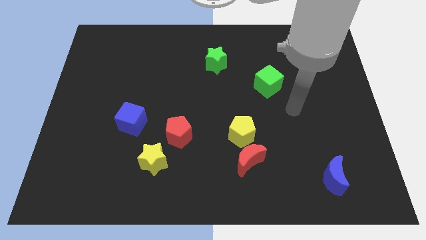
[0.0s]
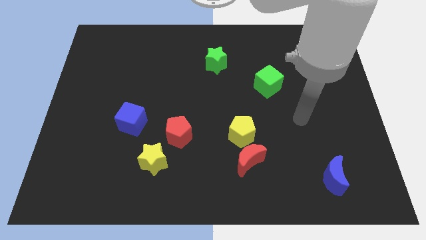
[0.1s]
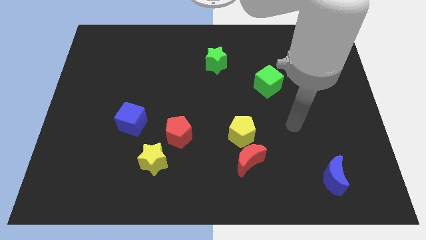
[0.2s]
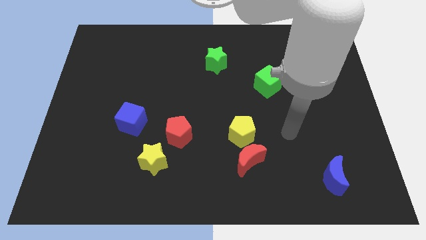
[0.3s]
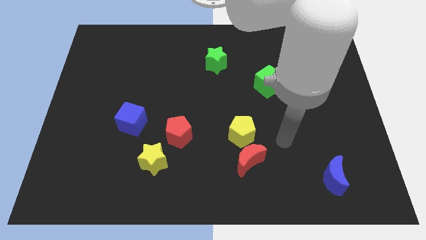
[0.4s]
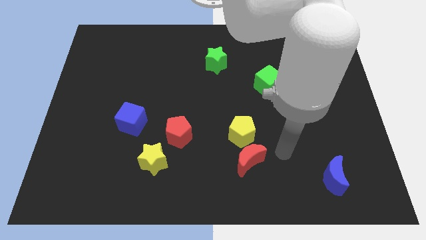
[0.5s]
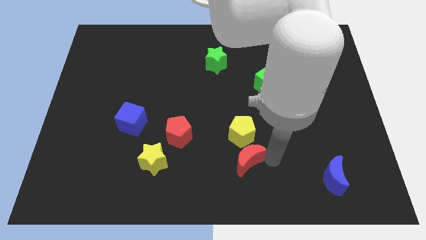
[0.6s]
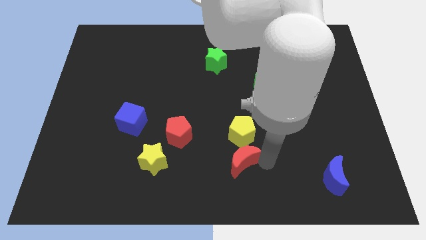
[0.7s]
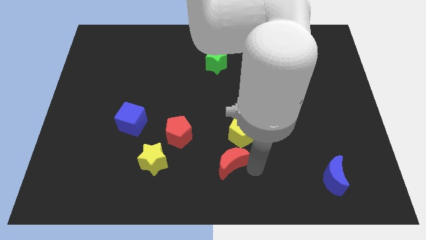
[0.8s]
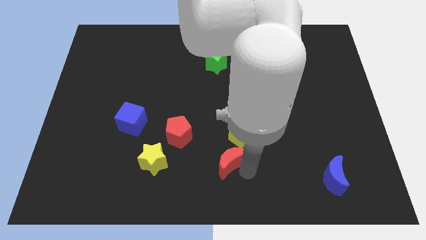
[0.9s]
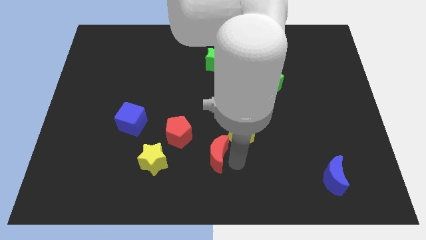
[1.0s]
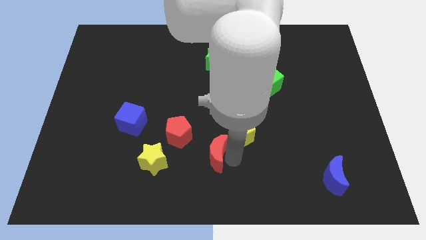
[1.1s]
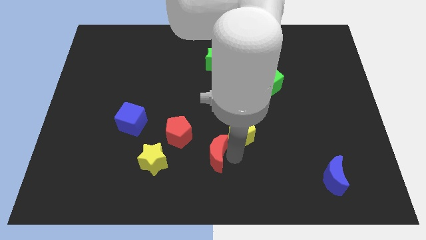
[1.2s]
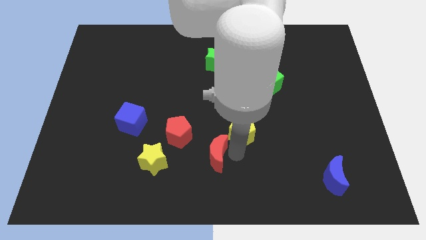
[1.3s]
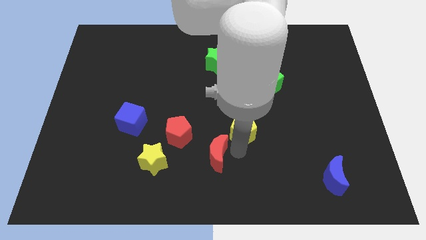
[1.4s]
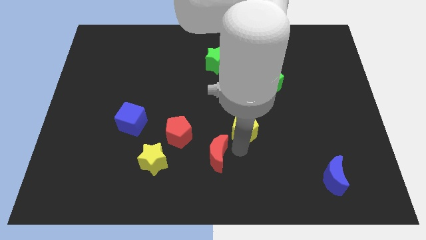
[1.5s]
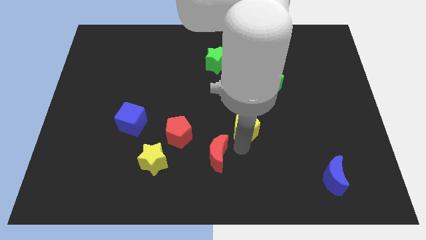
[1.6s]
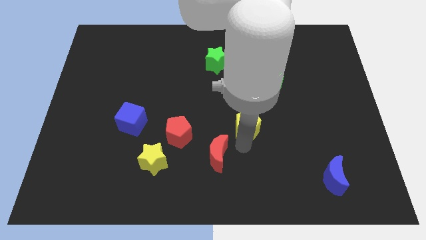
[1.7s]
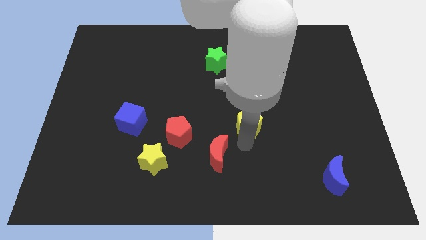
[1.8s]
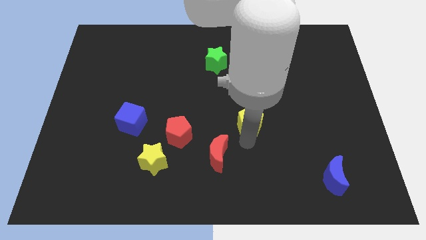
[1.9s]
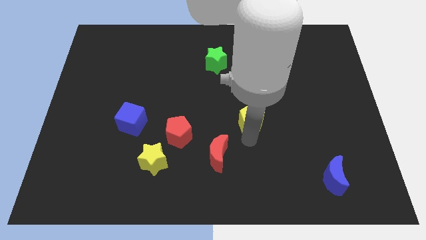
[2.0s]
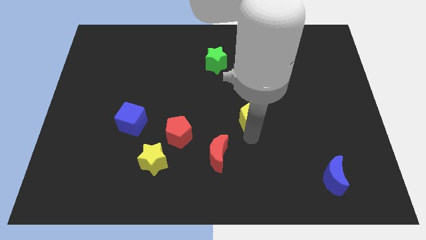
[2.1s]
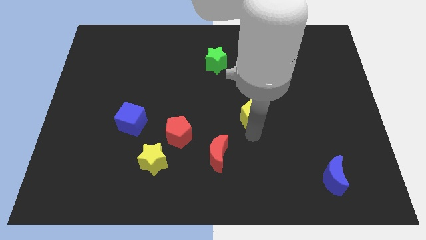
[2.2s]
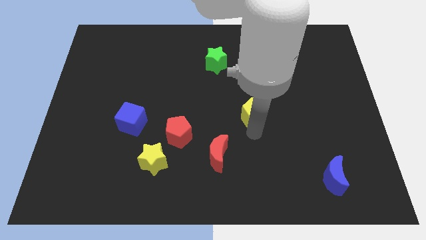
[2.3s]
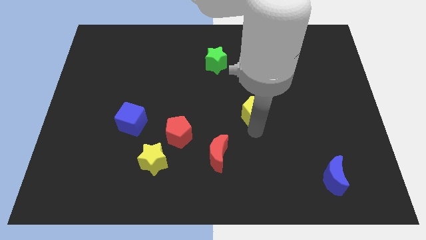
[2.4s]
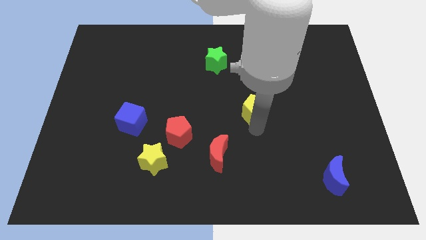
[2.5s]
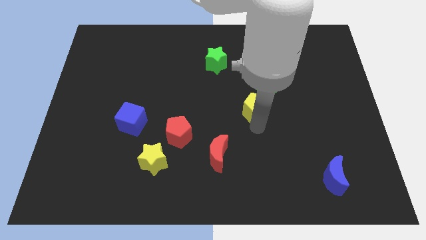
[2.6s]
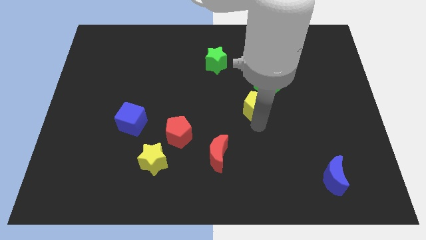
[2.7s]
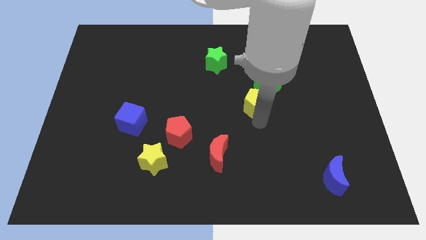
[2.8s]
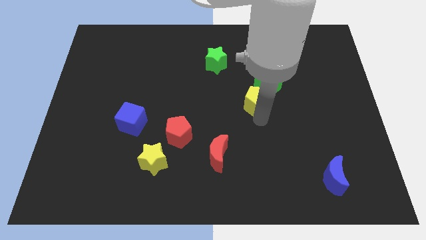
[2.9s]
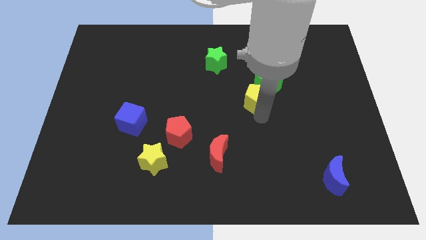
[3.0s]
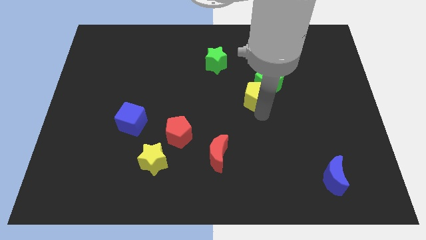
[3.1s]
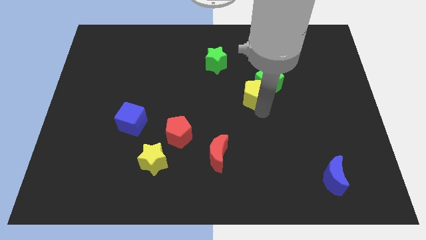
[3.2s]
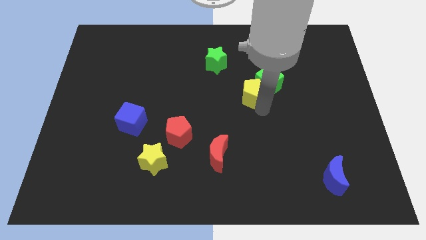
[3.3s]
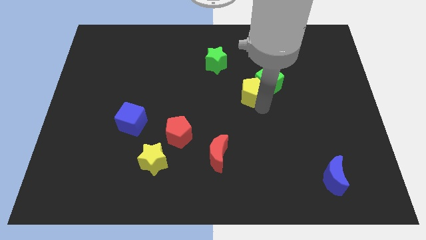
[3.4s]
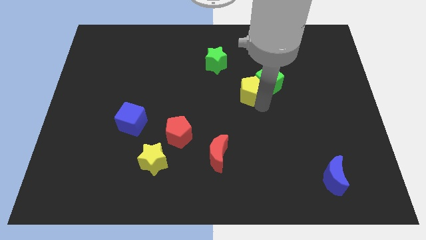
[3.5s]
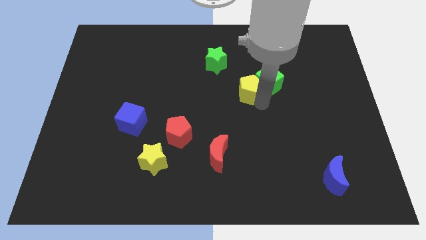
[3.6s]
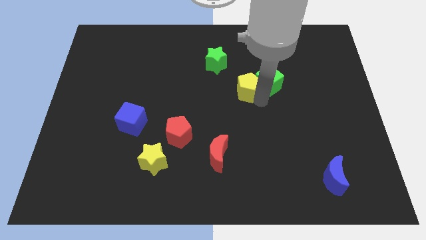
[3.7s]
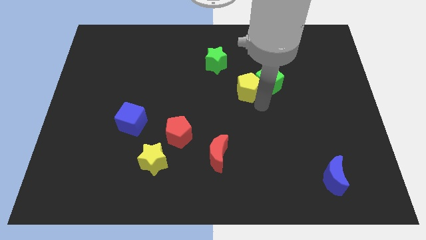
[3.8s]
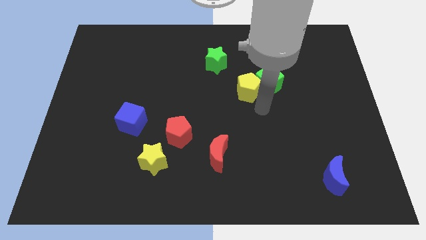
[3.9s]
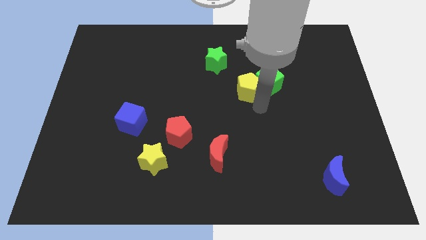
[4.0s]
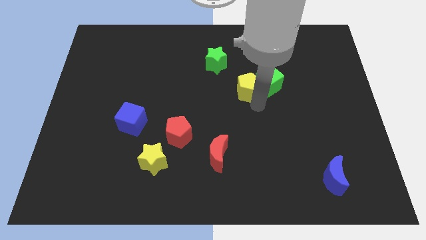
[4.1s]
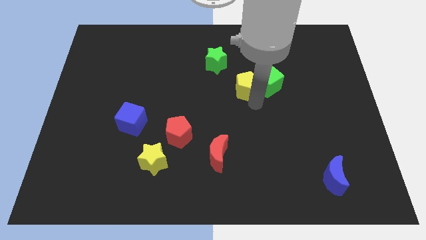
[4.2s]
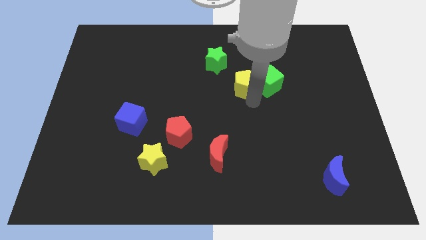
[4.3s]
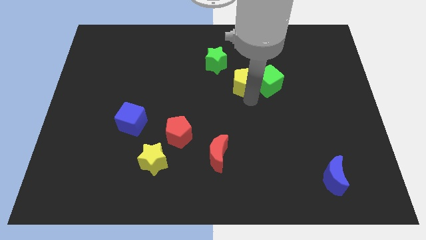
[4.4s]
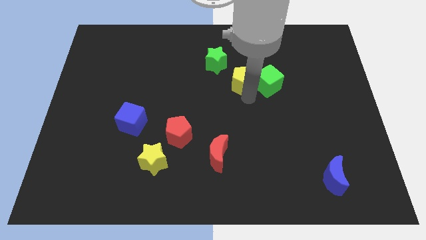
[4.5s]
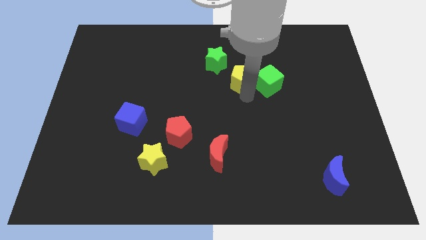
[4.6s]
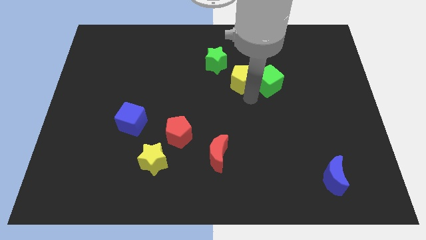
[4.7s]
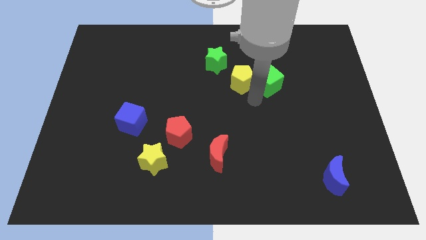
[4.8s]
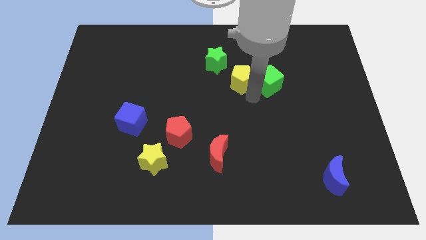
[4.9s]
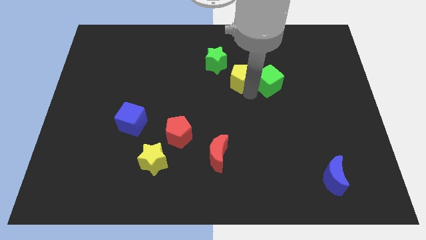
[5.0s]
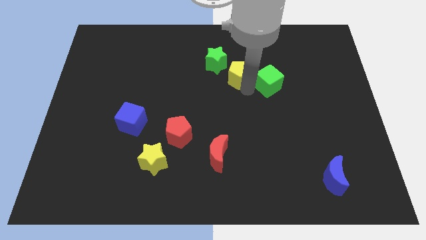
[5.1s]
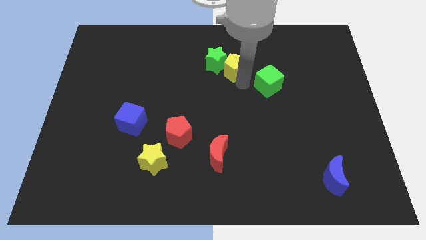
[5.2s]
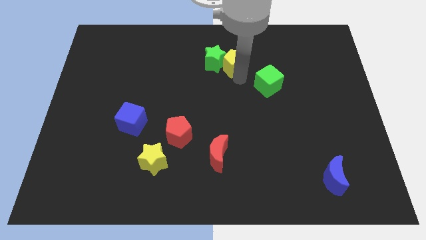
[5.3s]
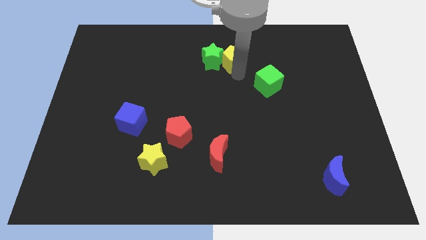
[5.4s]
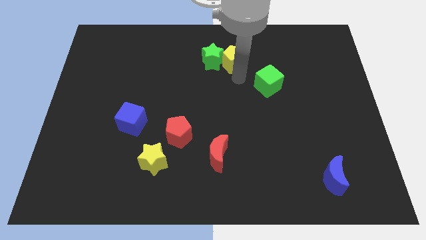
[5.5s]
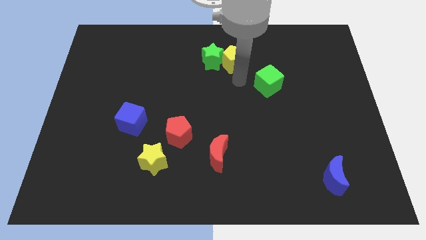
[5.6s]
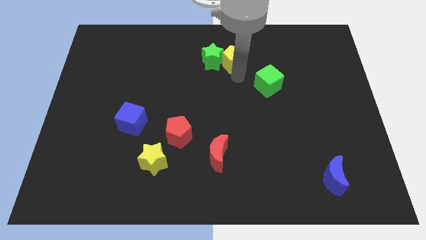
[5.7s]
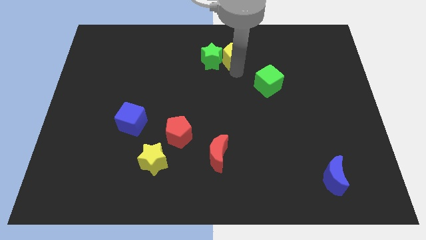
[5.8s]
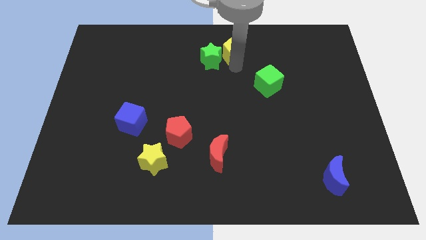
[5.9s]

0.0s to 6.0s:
slide the yellow pentagon to the top
